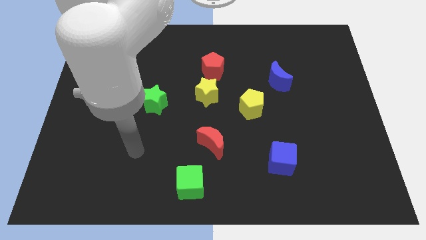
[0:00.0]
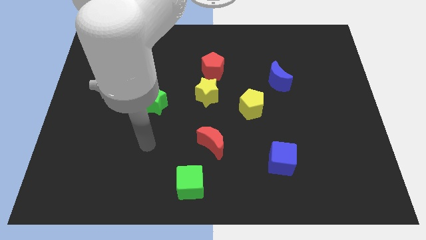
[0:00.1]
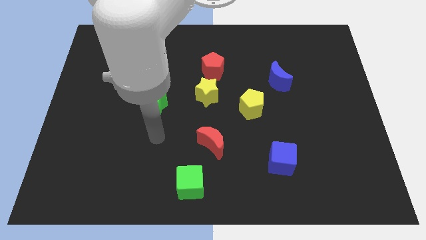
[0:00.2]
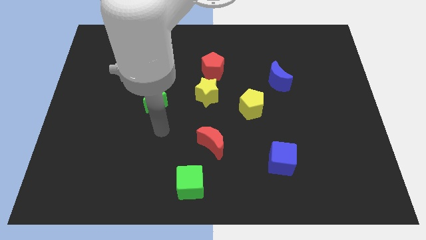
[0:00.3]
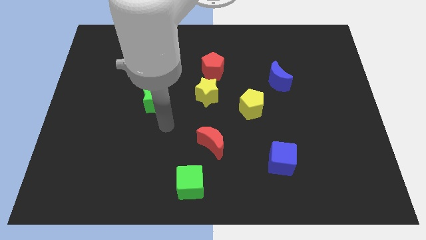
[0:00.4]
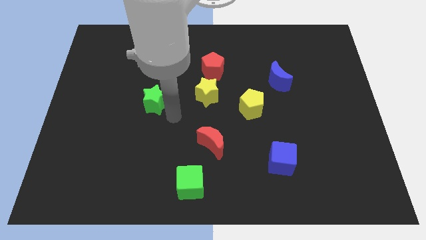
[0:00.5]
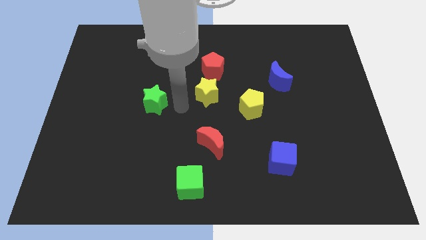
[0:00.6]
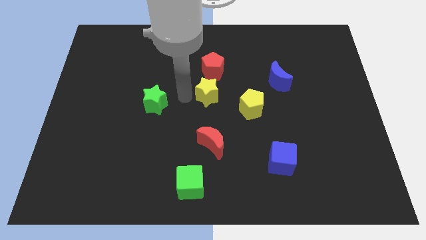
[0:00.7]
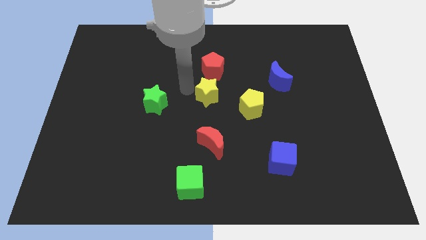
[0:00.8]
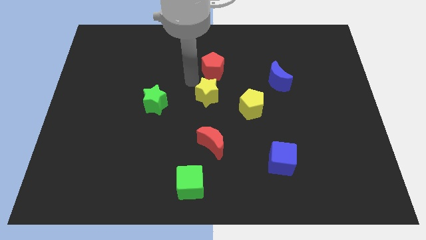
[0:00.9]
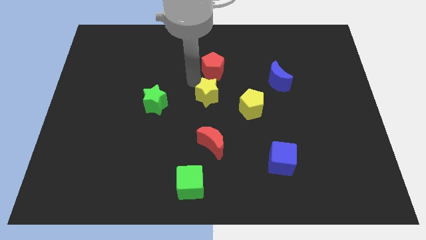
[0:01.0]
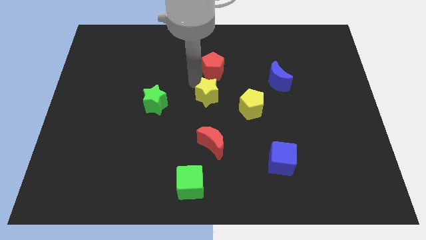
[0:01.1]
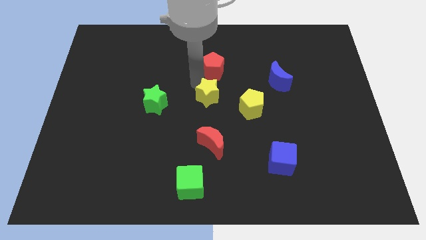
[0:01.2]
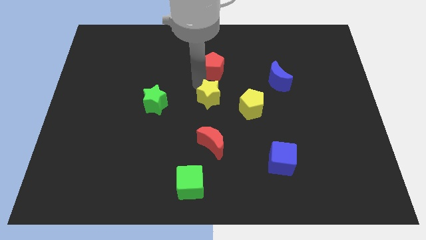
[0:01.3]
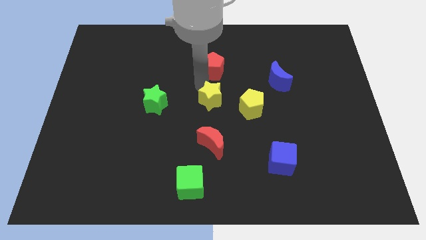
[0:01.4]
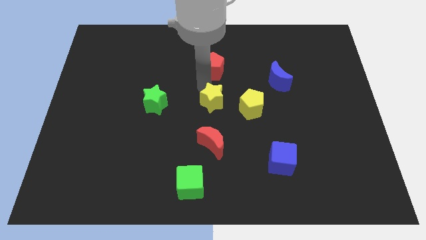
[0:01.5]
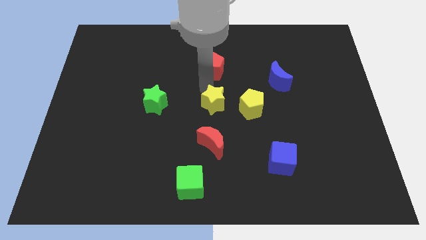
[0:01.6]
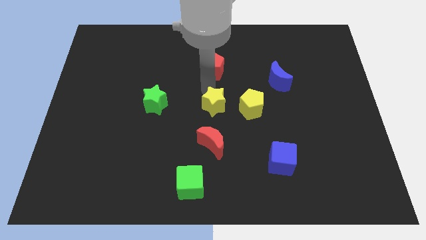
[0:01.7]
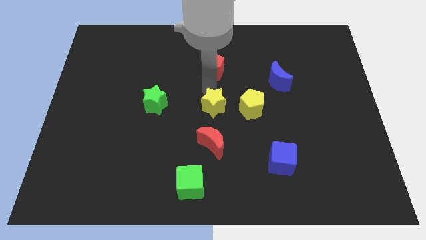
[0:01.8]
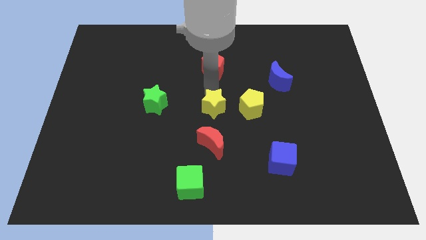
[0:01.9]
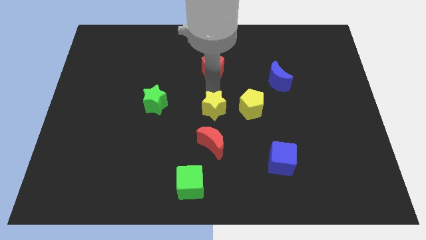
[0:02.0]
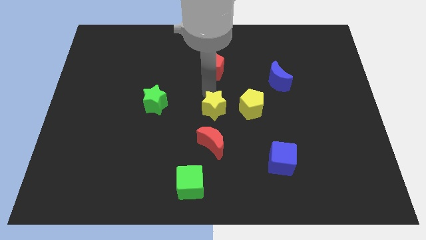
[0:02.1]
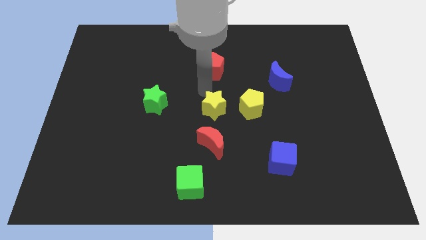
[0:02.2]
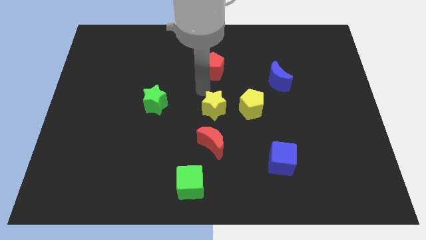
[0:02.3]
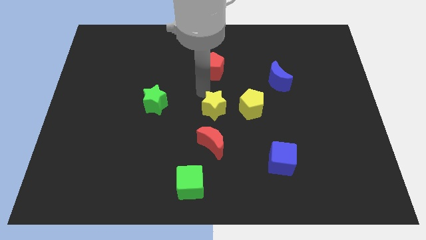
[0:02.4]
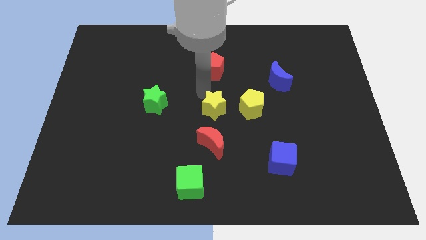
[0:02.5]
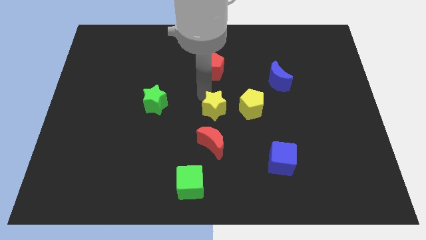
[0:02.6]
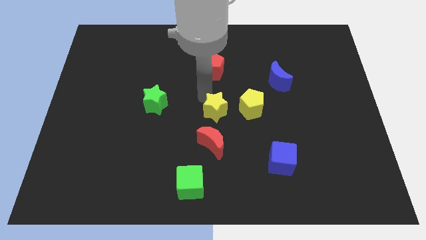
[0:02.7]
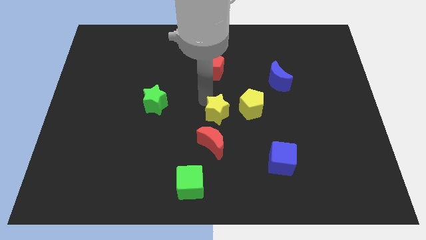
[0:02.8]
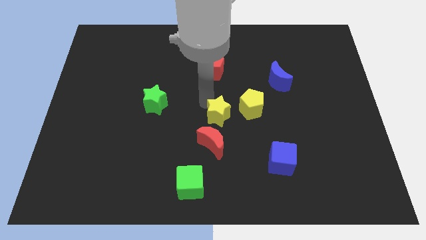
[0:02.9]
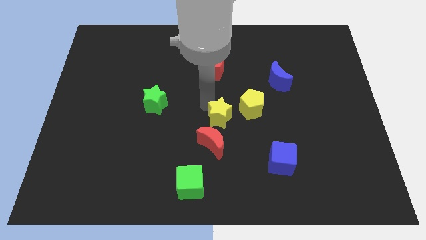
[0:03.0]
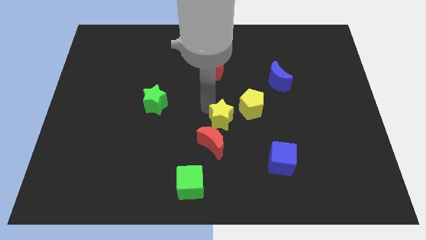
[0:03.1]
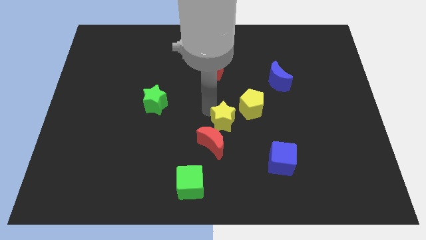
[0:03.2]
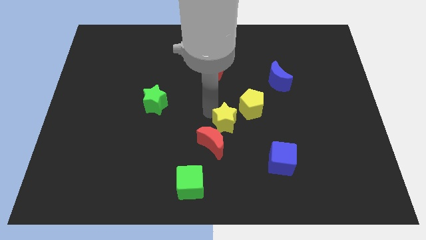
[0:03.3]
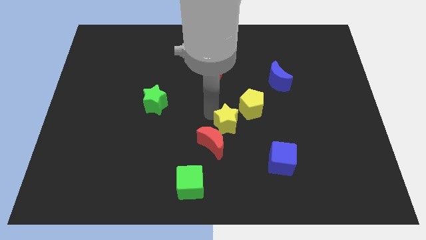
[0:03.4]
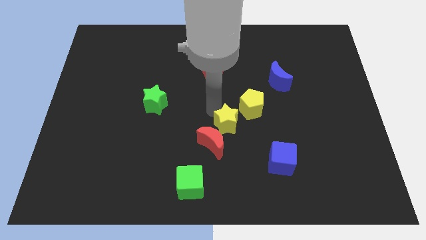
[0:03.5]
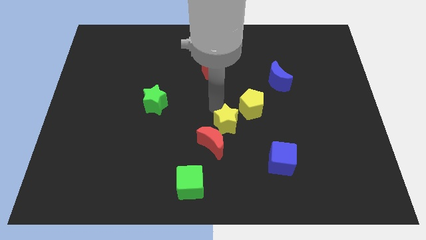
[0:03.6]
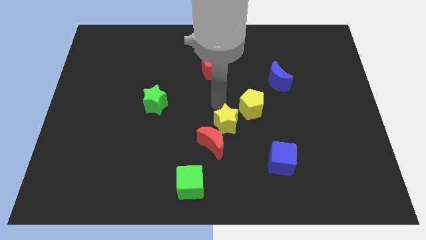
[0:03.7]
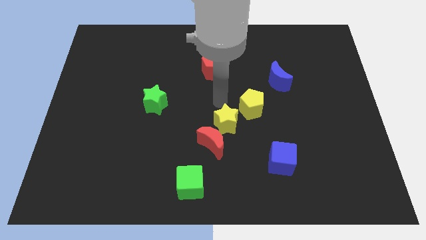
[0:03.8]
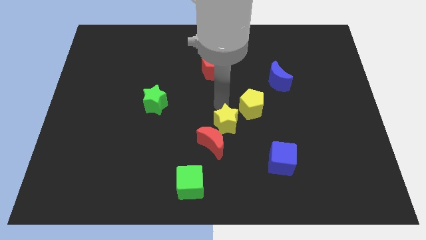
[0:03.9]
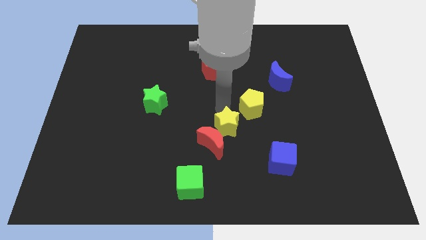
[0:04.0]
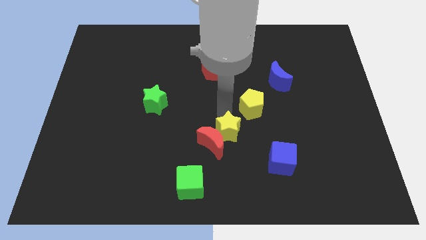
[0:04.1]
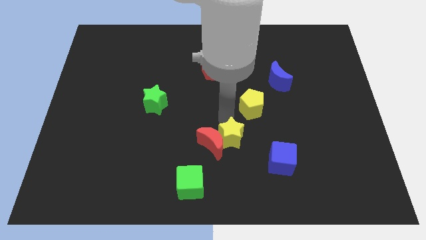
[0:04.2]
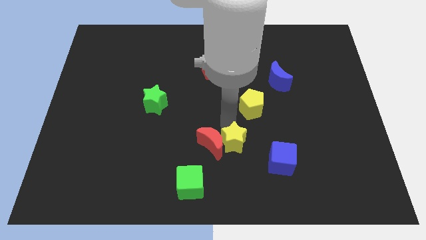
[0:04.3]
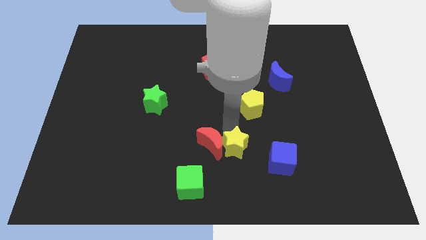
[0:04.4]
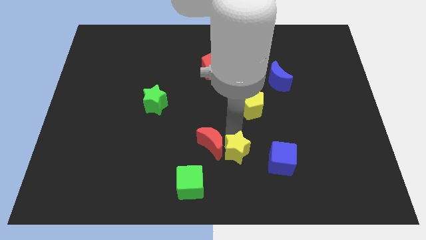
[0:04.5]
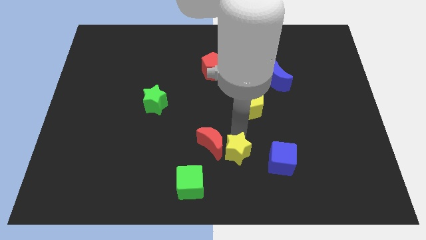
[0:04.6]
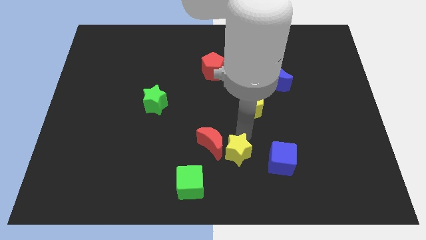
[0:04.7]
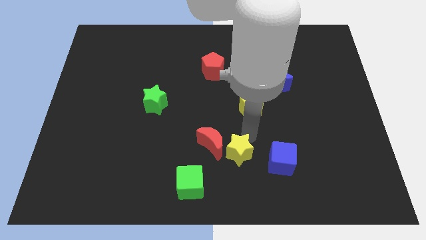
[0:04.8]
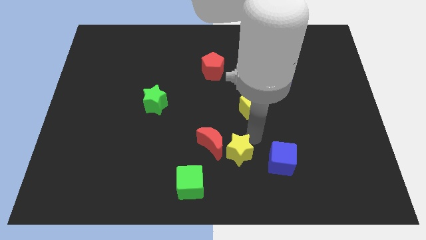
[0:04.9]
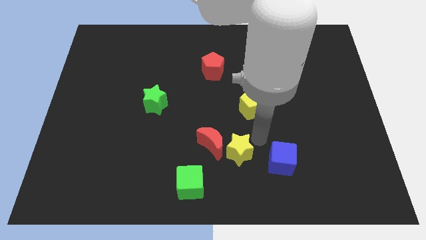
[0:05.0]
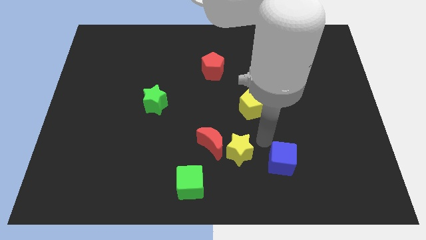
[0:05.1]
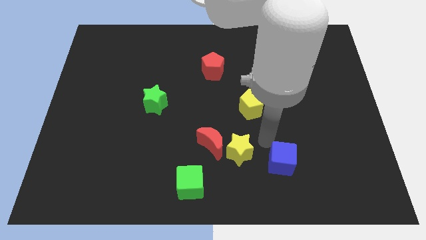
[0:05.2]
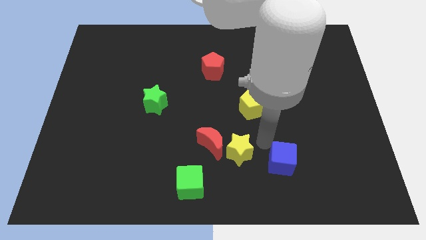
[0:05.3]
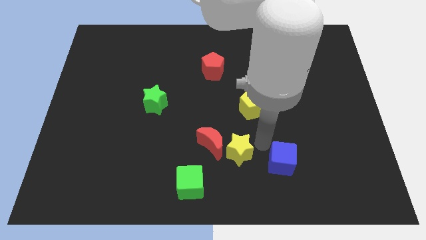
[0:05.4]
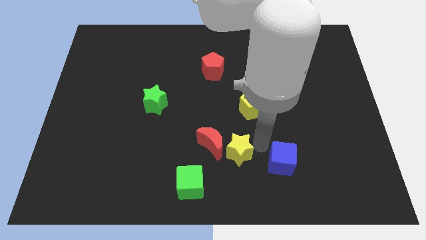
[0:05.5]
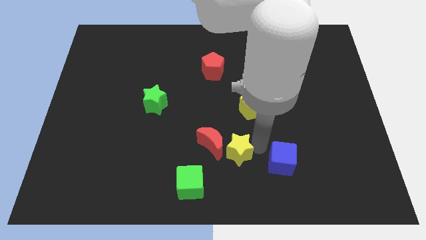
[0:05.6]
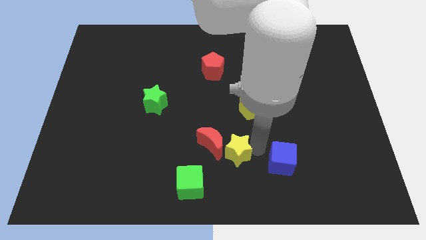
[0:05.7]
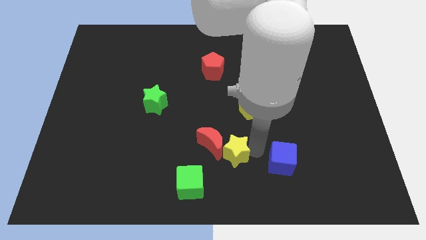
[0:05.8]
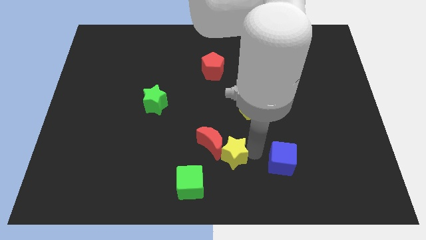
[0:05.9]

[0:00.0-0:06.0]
push the yellow star to the bottom side
